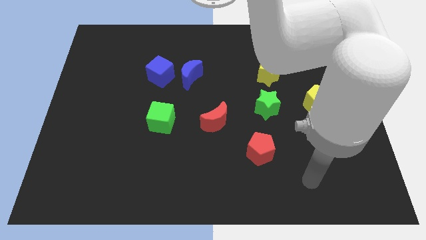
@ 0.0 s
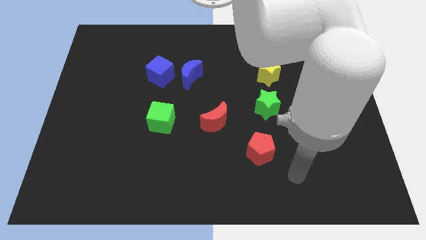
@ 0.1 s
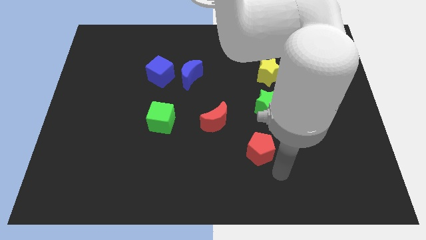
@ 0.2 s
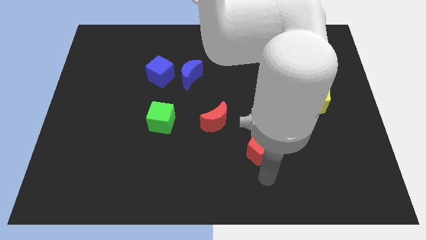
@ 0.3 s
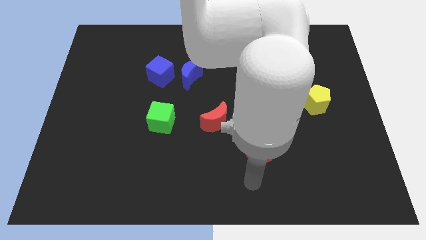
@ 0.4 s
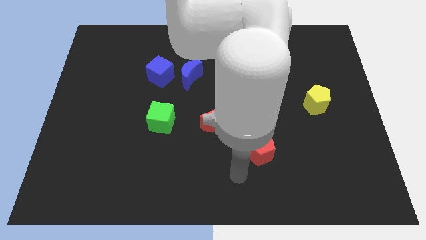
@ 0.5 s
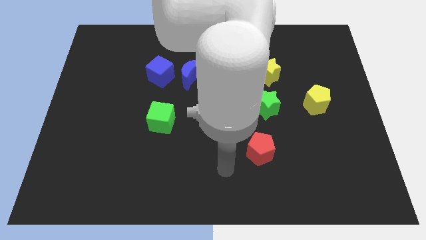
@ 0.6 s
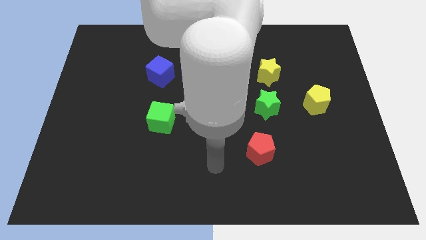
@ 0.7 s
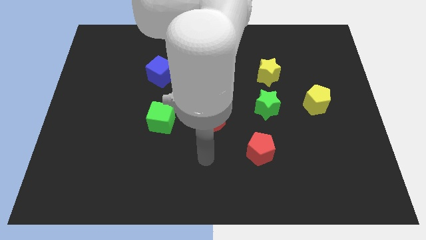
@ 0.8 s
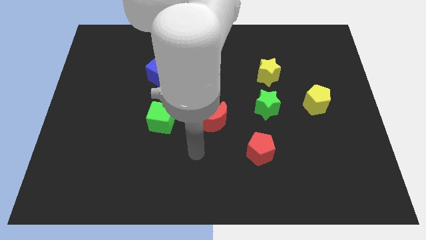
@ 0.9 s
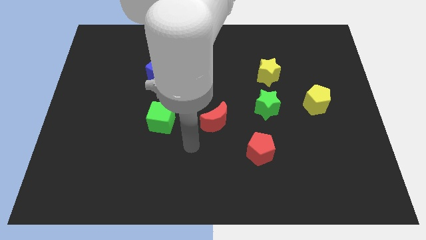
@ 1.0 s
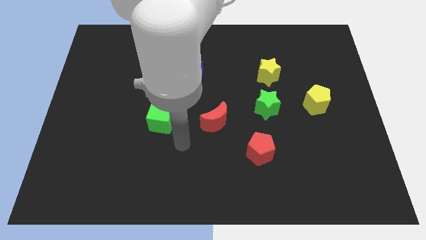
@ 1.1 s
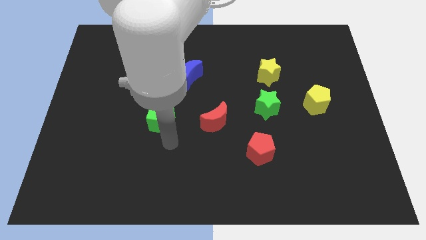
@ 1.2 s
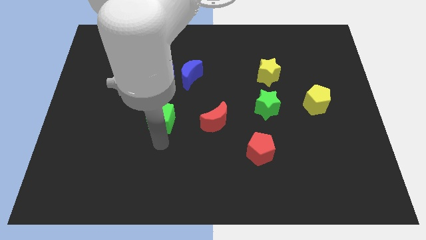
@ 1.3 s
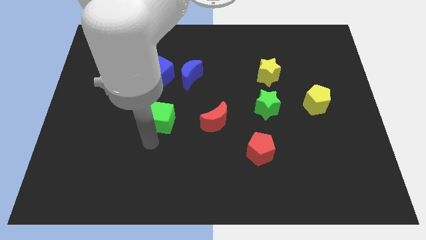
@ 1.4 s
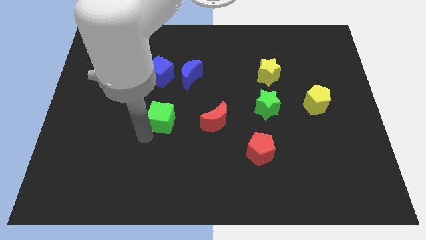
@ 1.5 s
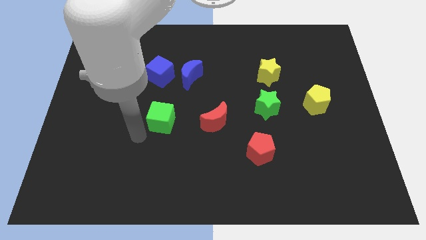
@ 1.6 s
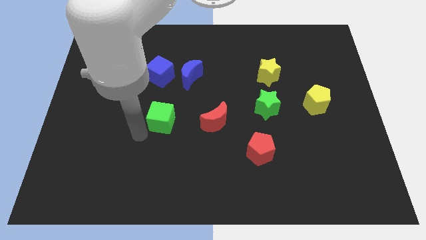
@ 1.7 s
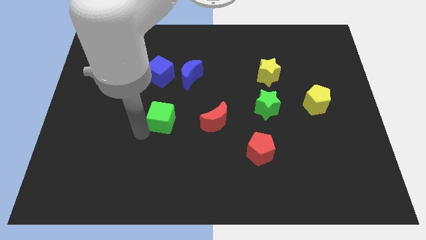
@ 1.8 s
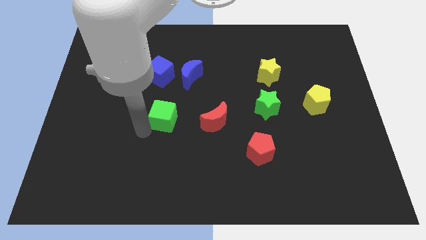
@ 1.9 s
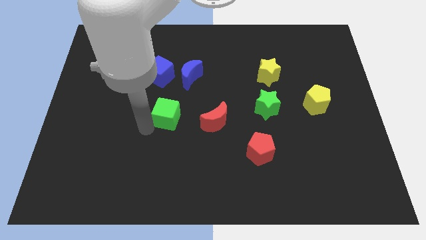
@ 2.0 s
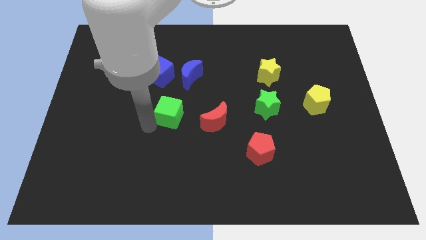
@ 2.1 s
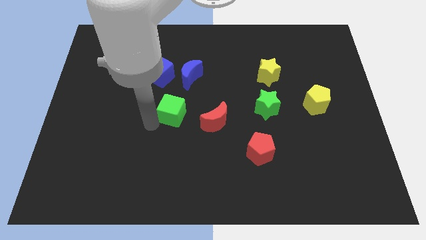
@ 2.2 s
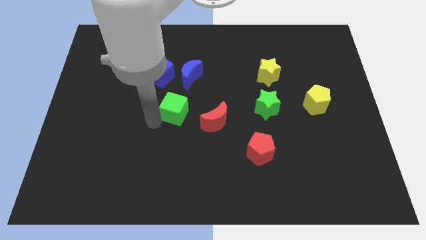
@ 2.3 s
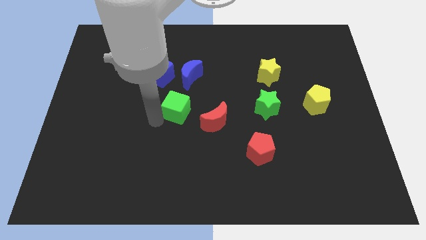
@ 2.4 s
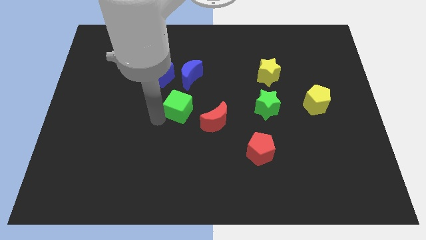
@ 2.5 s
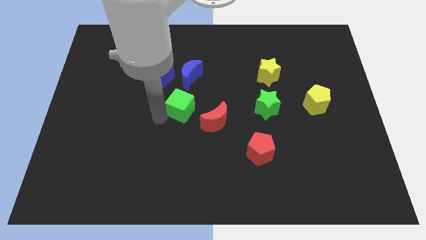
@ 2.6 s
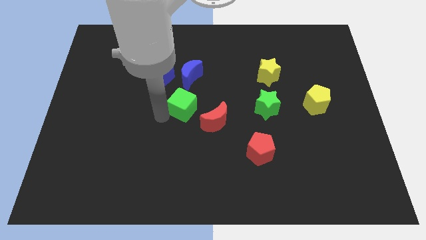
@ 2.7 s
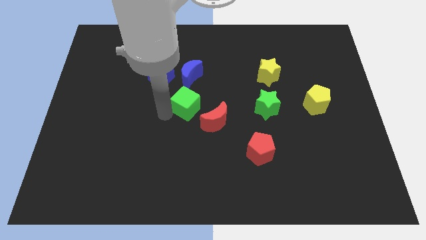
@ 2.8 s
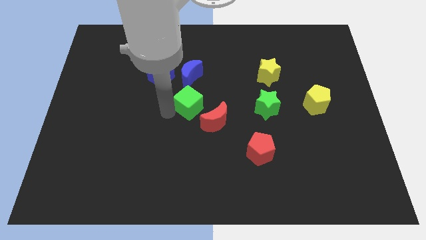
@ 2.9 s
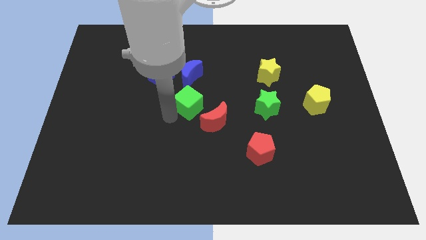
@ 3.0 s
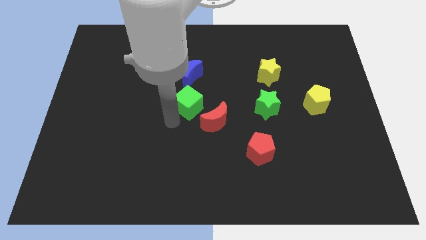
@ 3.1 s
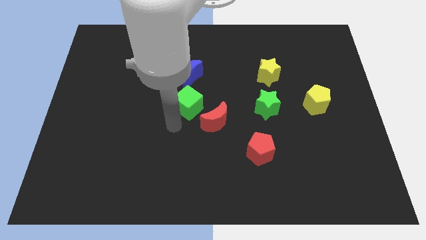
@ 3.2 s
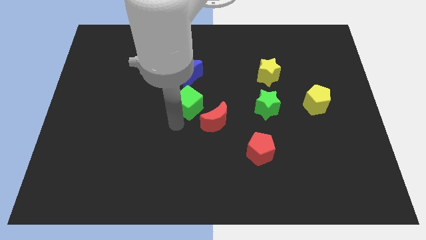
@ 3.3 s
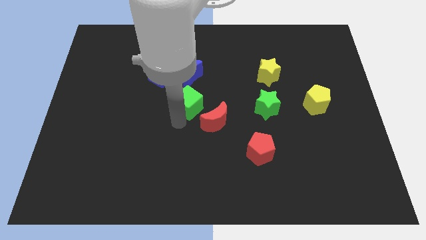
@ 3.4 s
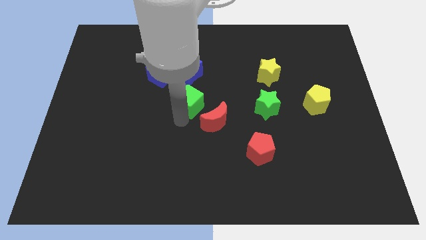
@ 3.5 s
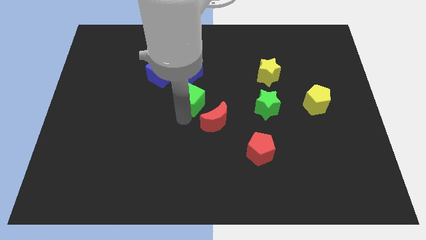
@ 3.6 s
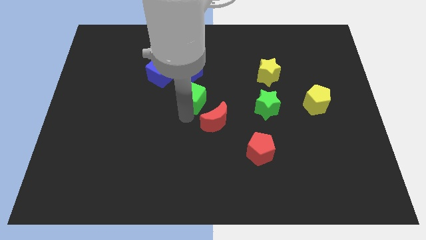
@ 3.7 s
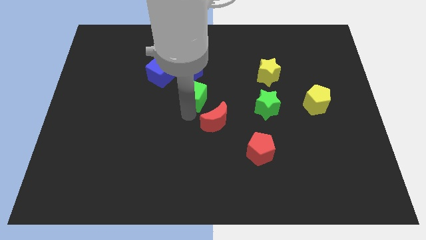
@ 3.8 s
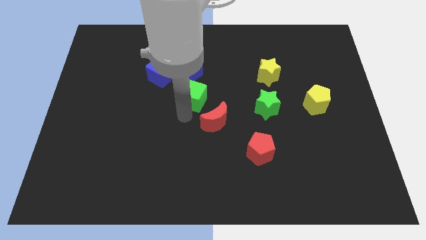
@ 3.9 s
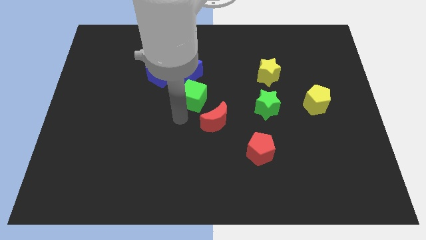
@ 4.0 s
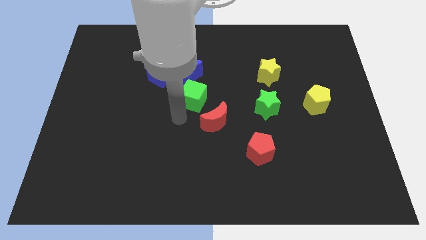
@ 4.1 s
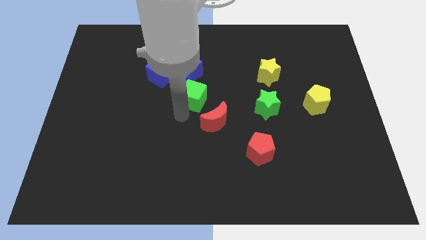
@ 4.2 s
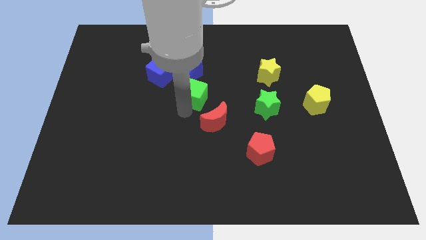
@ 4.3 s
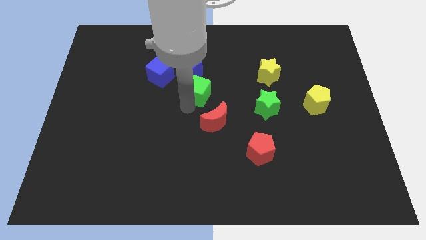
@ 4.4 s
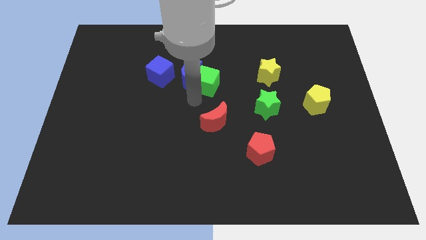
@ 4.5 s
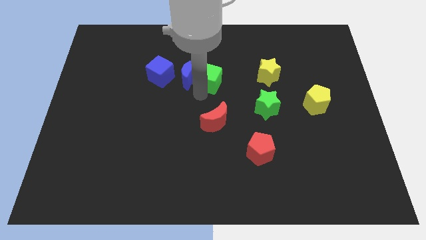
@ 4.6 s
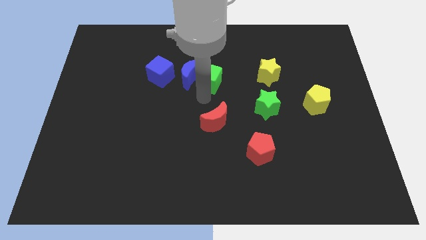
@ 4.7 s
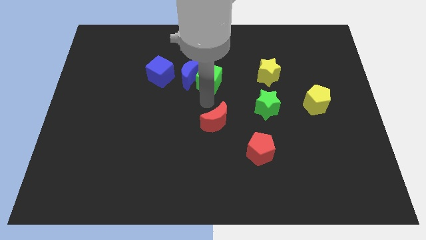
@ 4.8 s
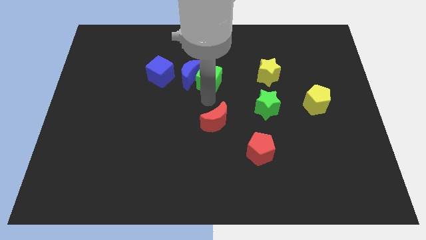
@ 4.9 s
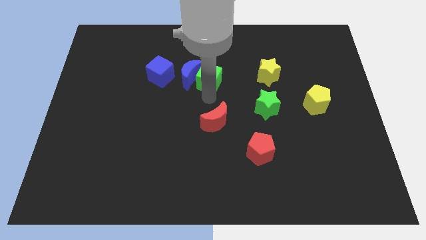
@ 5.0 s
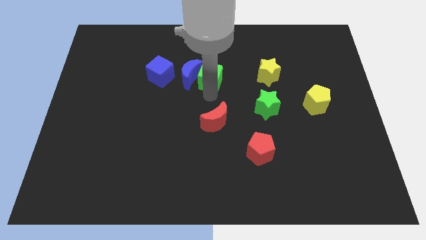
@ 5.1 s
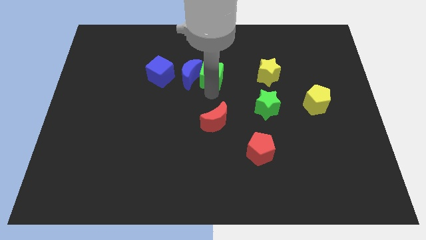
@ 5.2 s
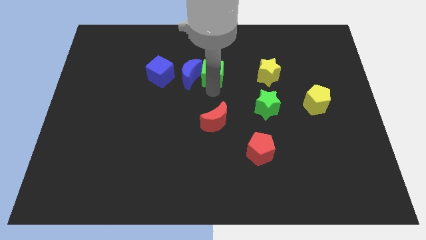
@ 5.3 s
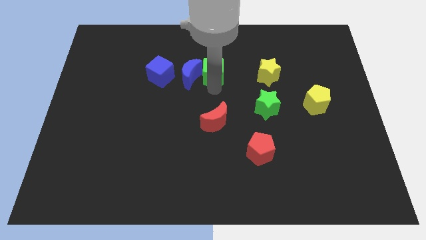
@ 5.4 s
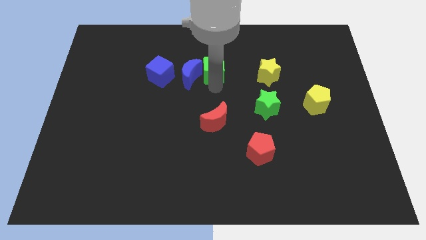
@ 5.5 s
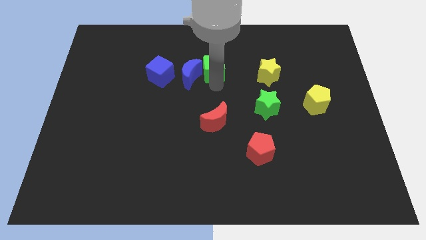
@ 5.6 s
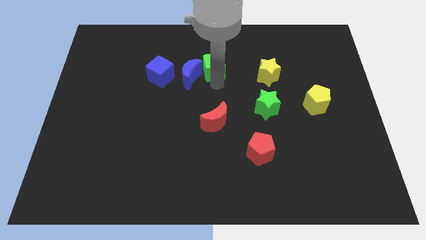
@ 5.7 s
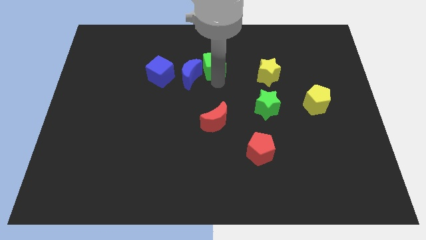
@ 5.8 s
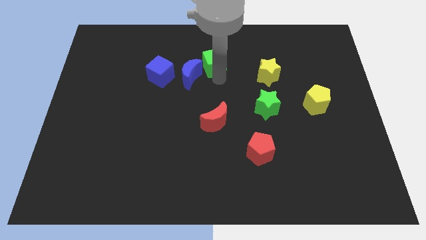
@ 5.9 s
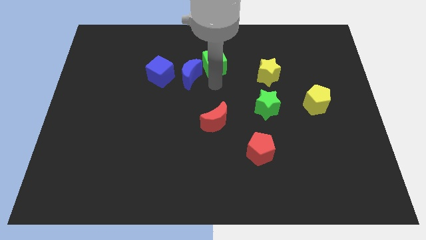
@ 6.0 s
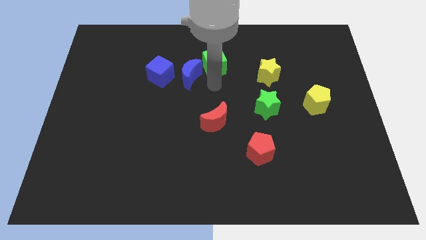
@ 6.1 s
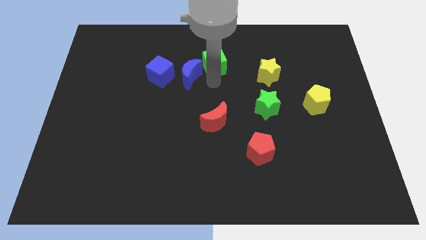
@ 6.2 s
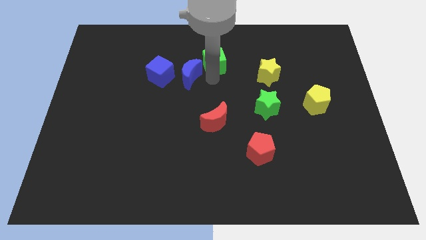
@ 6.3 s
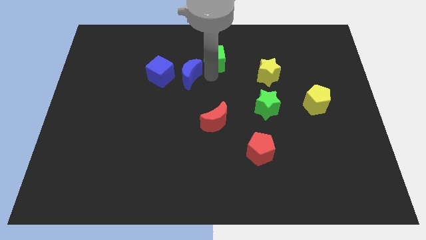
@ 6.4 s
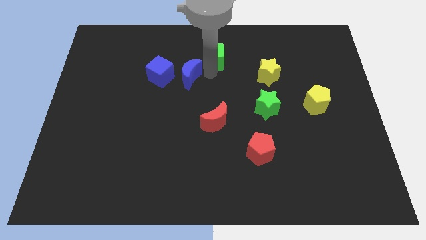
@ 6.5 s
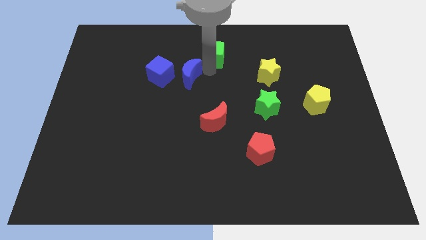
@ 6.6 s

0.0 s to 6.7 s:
slide the green cube to the towards your base
